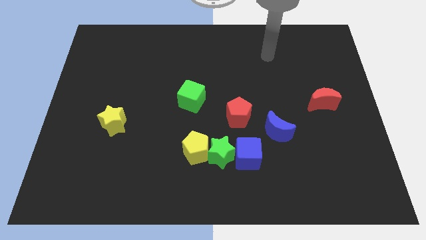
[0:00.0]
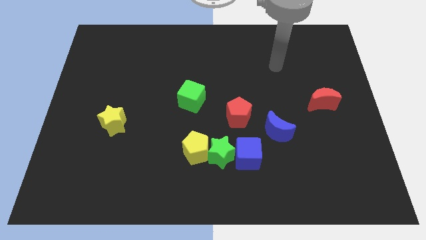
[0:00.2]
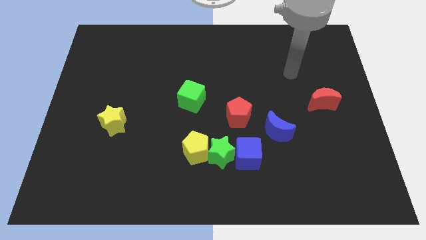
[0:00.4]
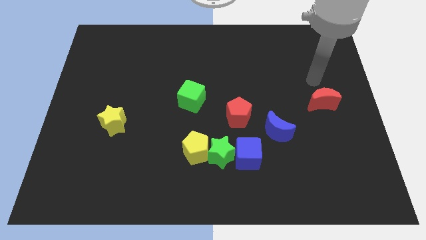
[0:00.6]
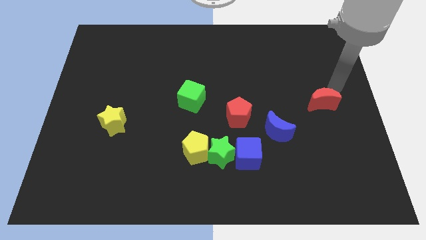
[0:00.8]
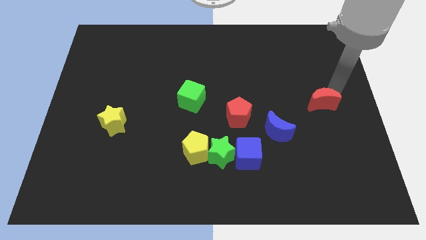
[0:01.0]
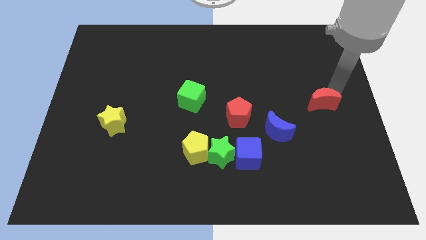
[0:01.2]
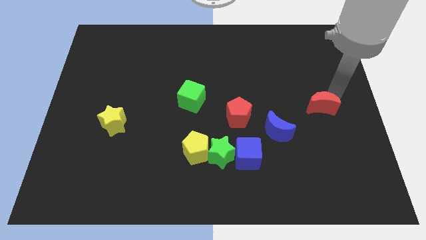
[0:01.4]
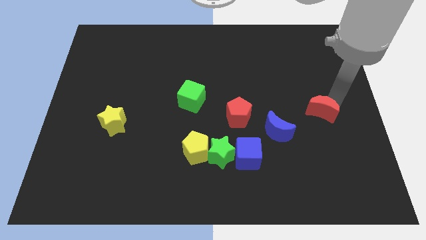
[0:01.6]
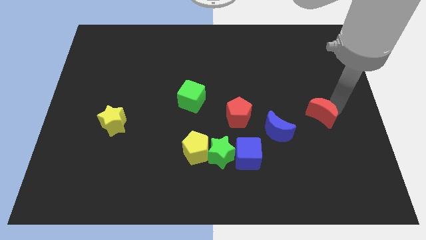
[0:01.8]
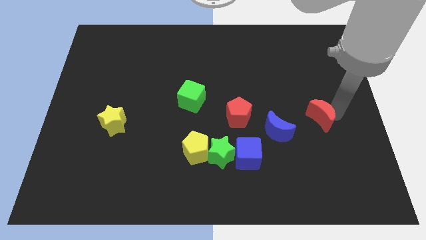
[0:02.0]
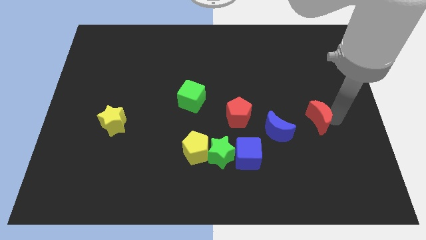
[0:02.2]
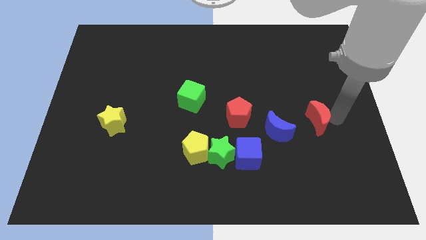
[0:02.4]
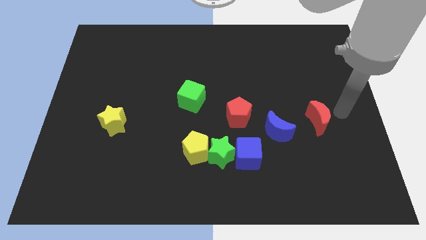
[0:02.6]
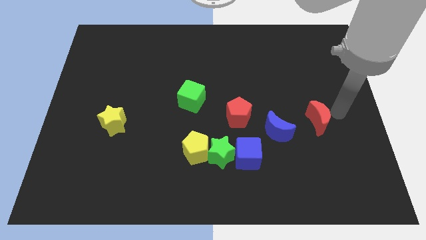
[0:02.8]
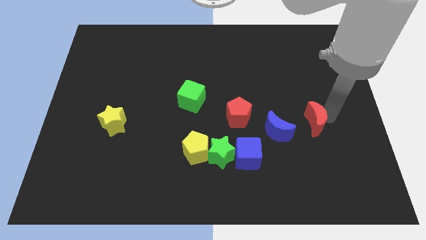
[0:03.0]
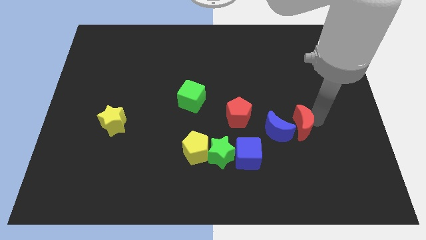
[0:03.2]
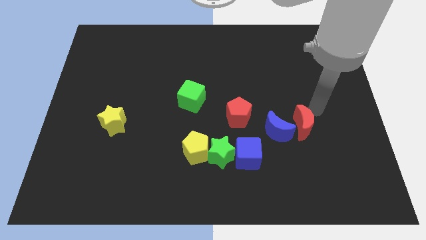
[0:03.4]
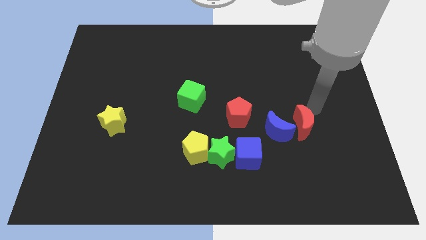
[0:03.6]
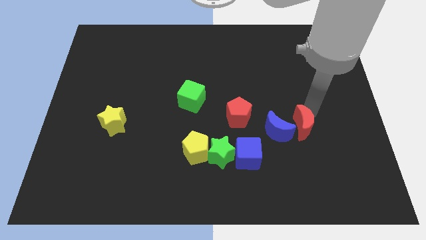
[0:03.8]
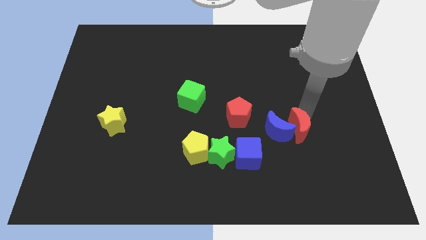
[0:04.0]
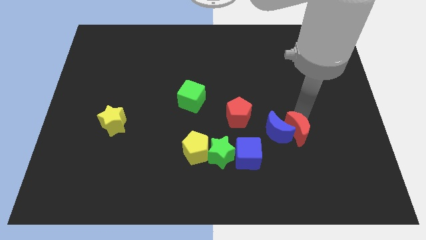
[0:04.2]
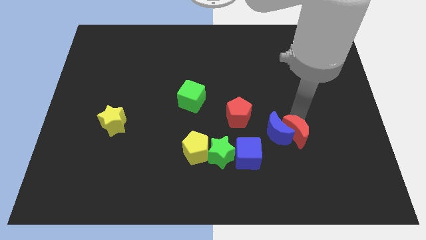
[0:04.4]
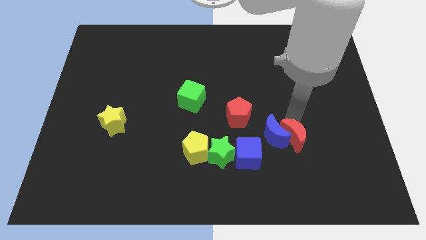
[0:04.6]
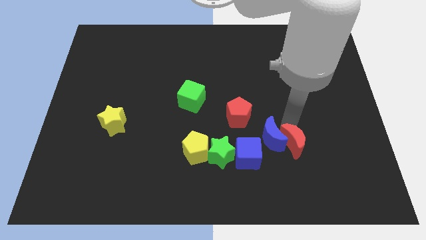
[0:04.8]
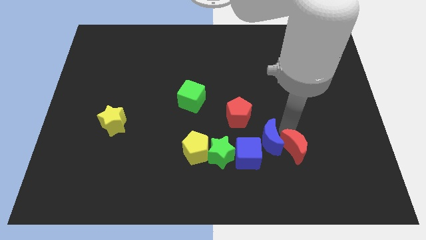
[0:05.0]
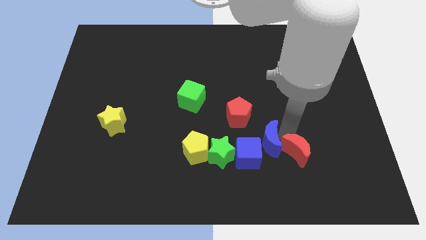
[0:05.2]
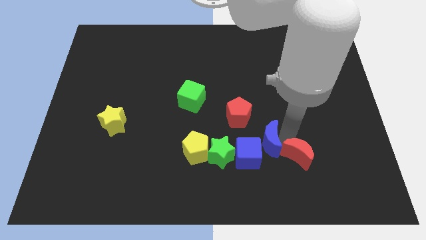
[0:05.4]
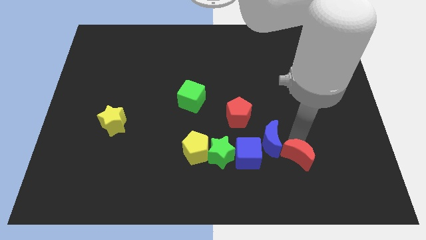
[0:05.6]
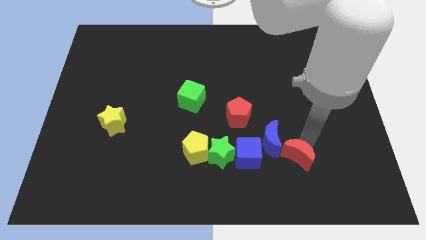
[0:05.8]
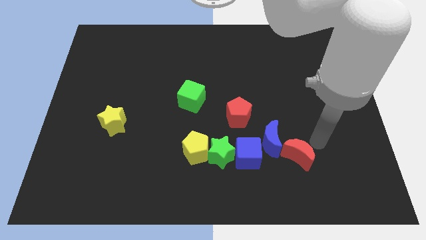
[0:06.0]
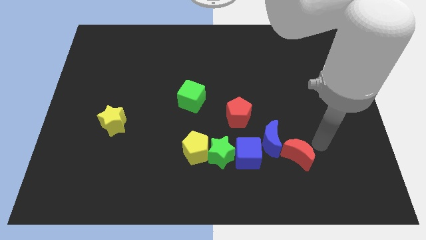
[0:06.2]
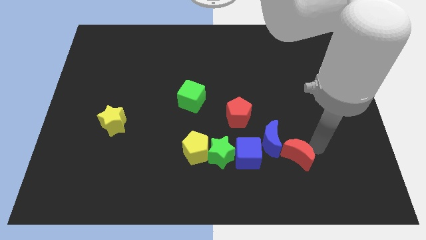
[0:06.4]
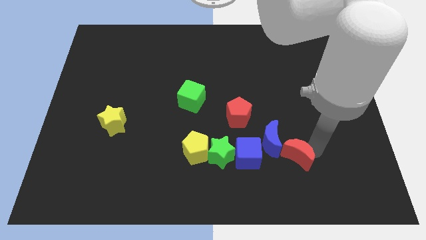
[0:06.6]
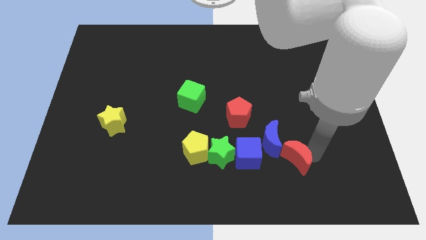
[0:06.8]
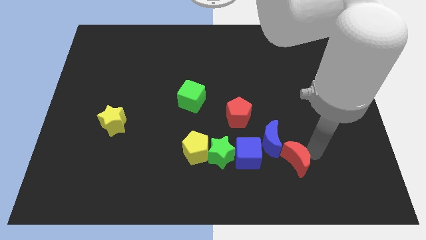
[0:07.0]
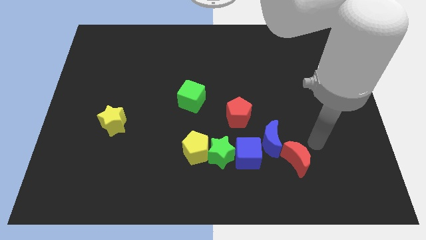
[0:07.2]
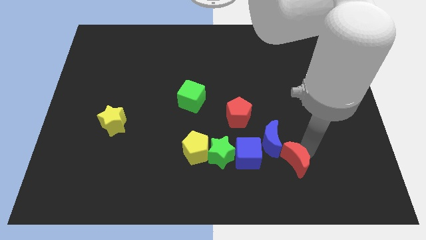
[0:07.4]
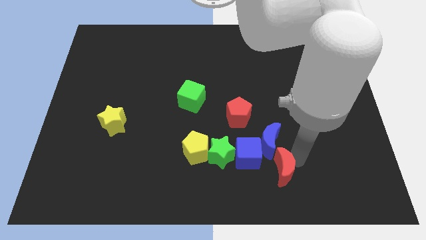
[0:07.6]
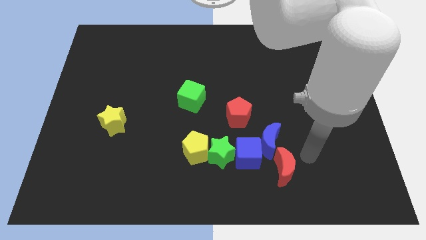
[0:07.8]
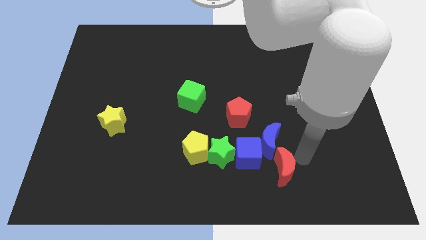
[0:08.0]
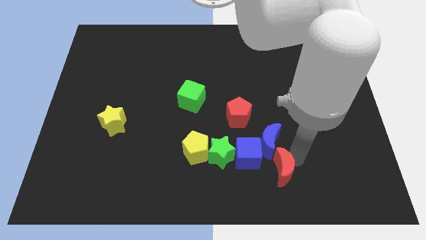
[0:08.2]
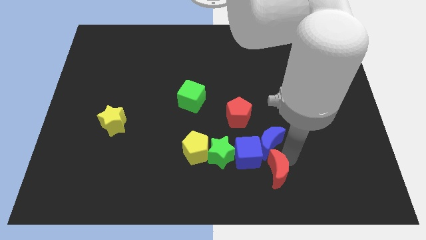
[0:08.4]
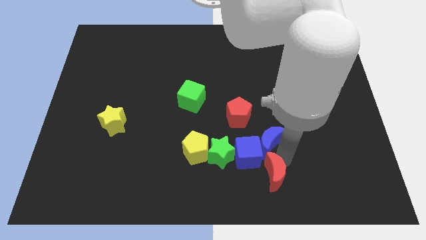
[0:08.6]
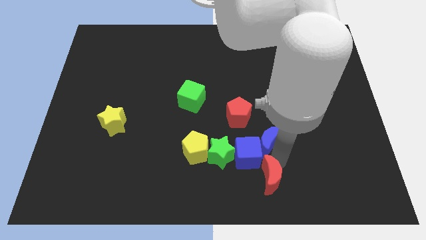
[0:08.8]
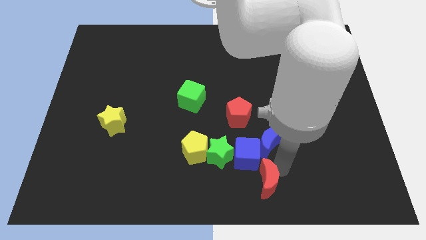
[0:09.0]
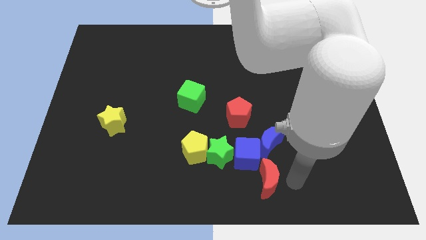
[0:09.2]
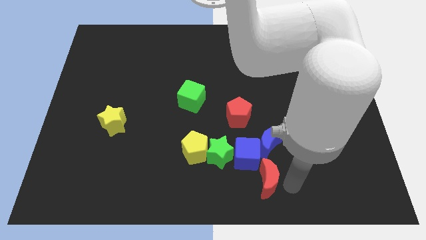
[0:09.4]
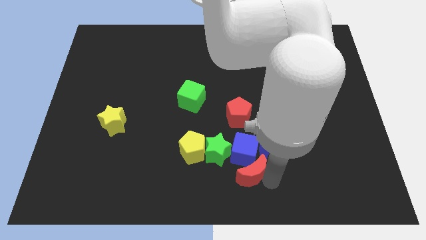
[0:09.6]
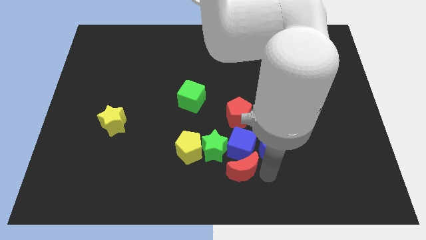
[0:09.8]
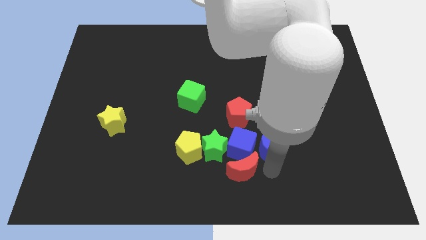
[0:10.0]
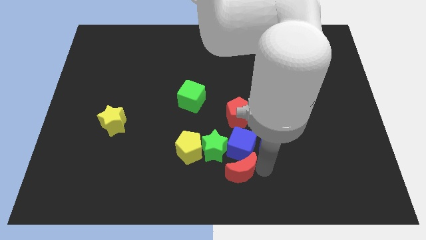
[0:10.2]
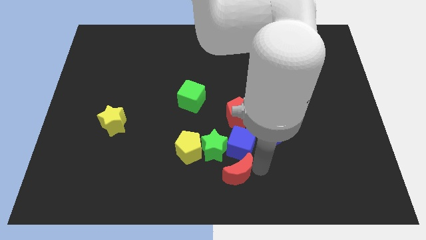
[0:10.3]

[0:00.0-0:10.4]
push the red moon to the bottom right of the yellow pentagon

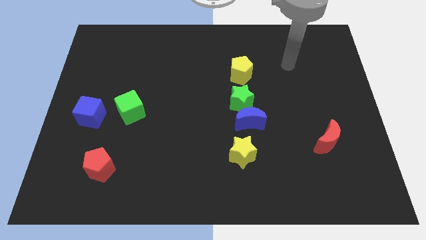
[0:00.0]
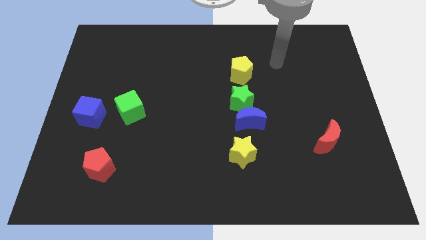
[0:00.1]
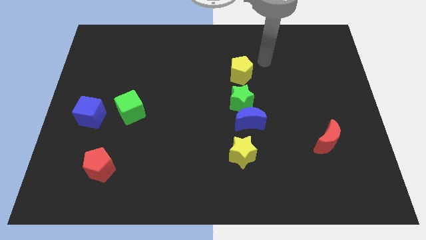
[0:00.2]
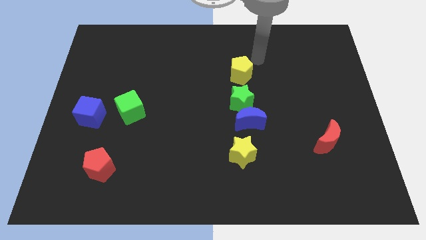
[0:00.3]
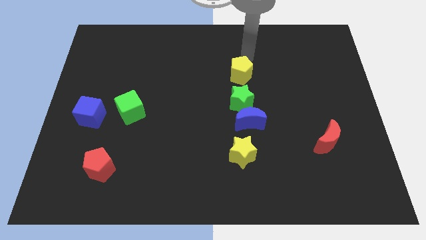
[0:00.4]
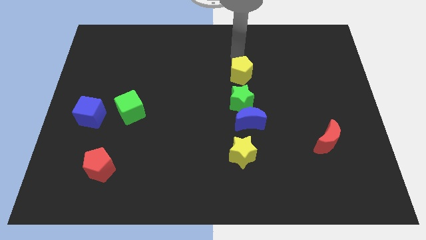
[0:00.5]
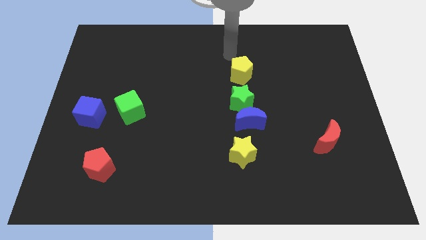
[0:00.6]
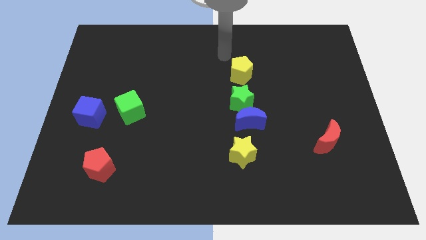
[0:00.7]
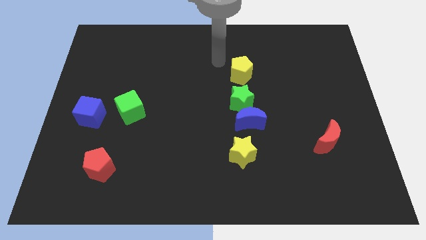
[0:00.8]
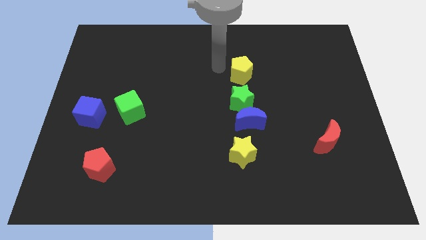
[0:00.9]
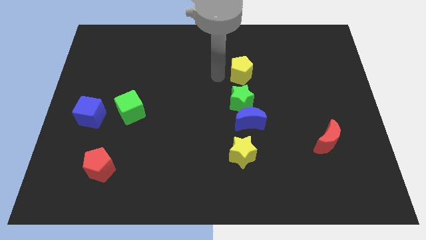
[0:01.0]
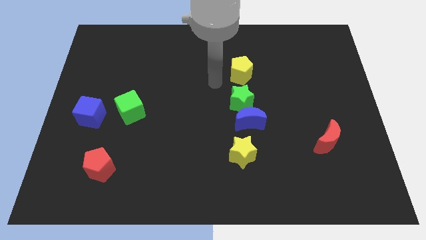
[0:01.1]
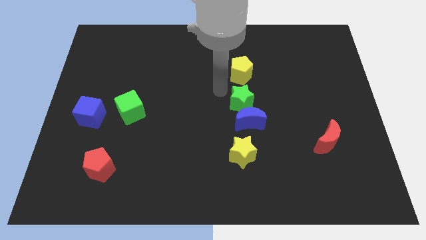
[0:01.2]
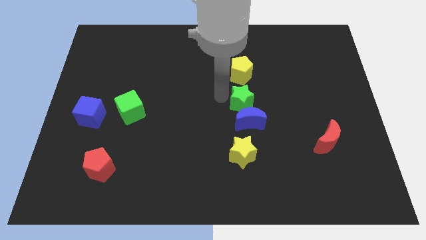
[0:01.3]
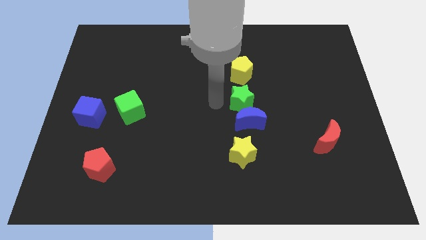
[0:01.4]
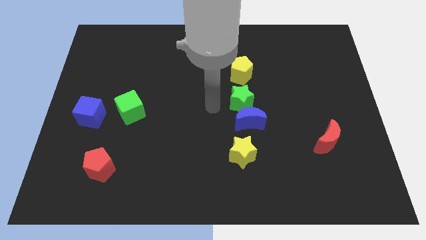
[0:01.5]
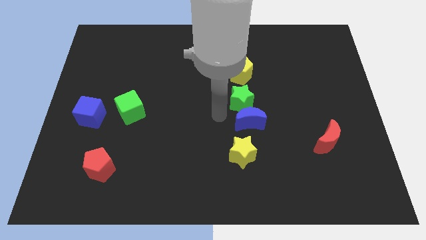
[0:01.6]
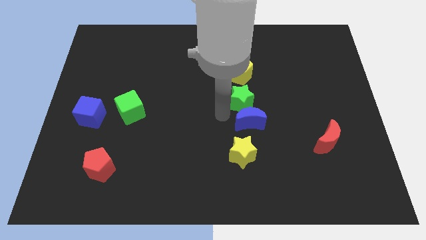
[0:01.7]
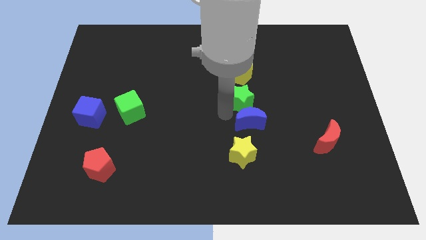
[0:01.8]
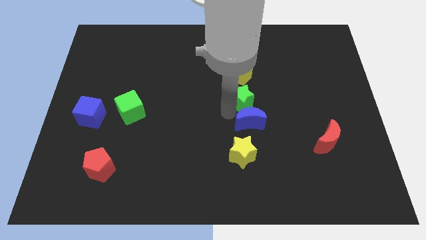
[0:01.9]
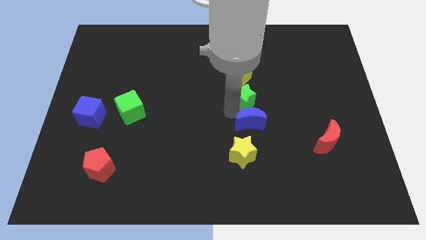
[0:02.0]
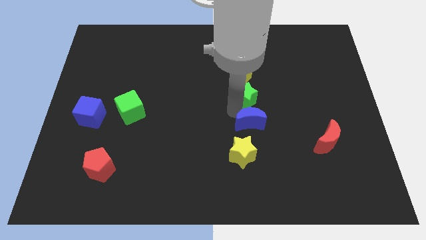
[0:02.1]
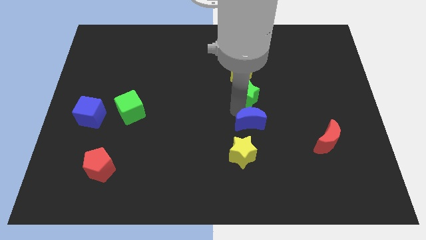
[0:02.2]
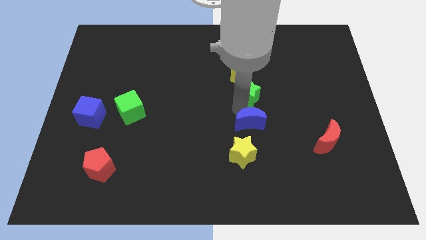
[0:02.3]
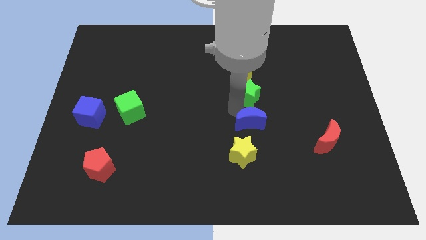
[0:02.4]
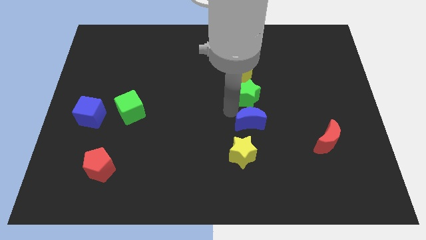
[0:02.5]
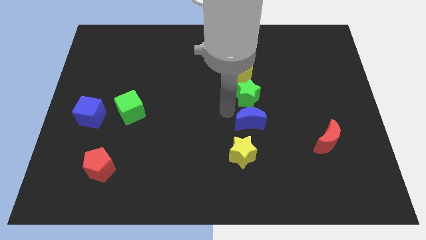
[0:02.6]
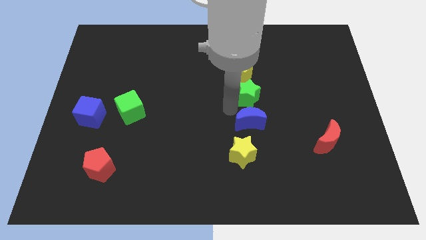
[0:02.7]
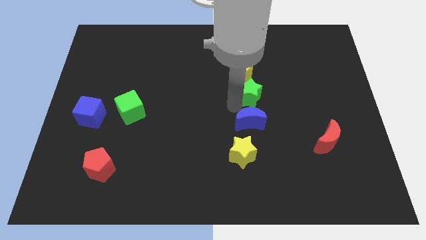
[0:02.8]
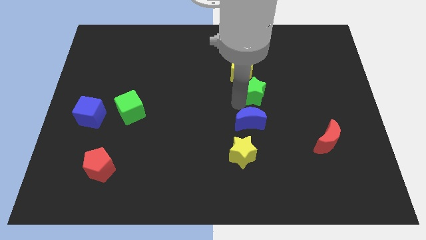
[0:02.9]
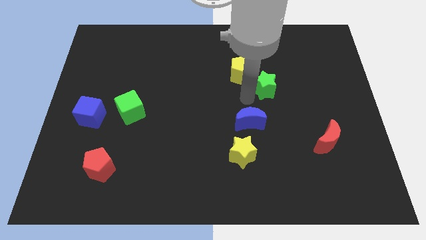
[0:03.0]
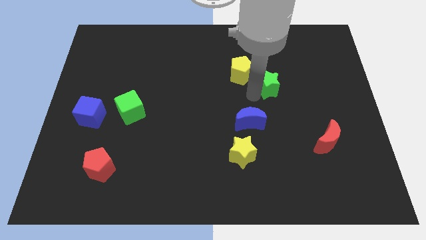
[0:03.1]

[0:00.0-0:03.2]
push the green star to the right of the yellow pentagon
